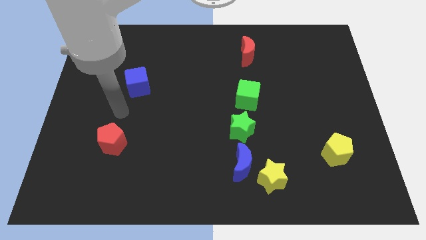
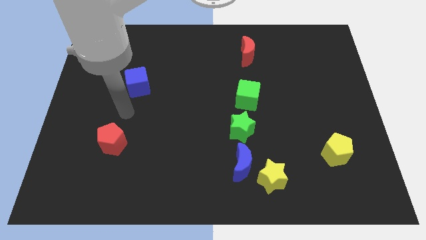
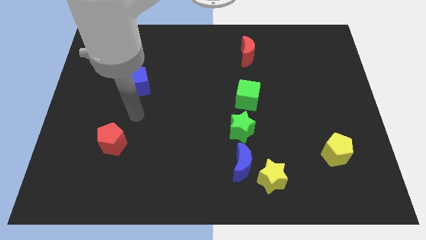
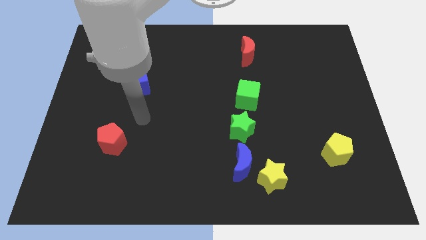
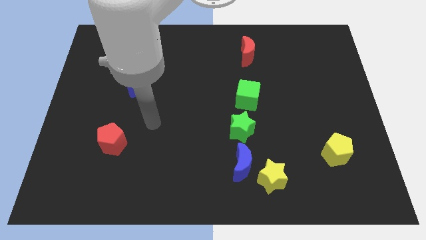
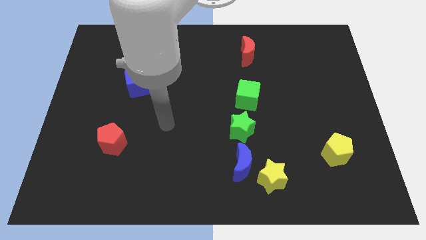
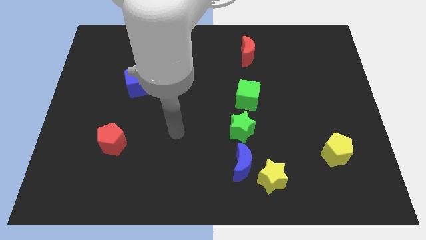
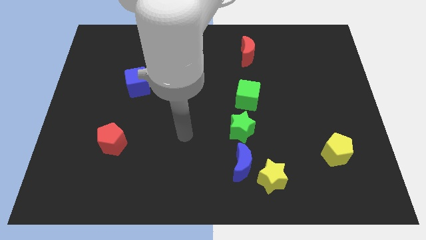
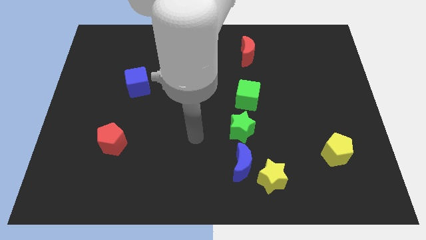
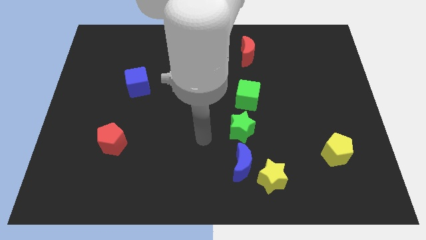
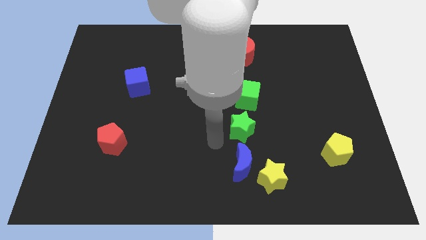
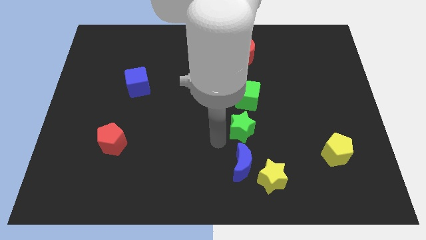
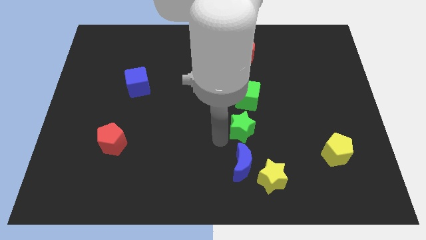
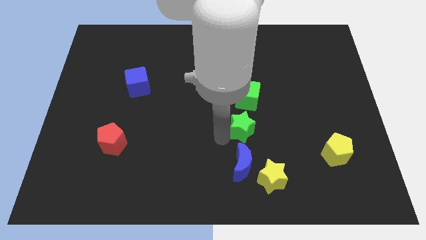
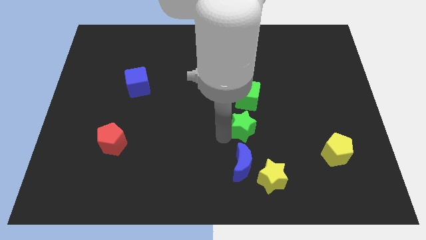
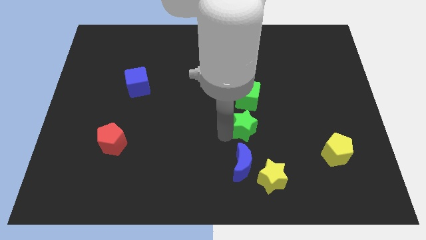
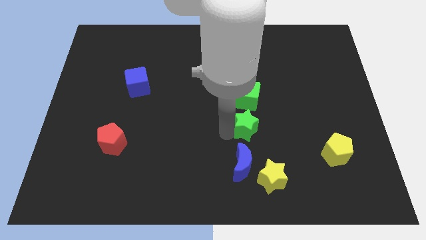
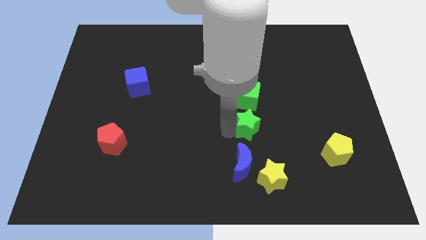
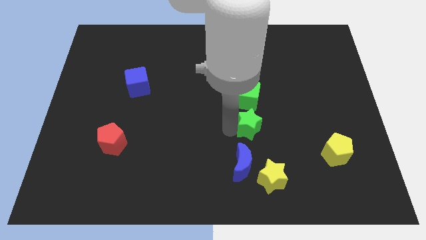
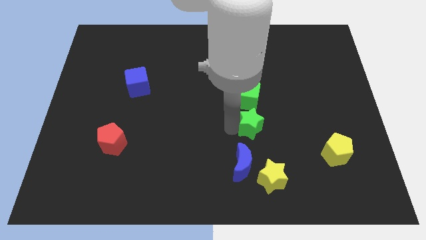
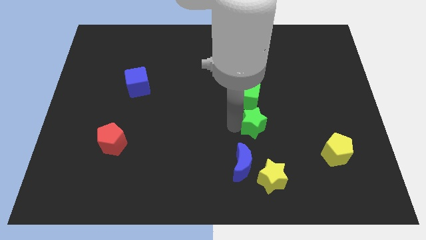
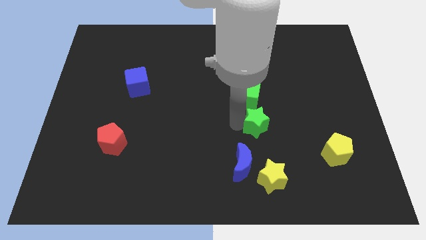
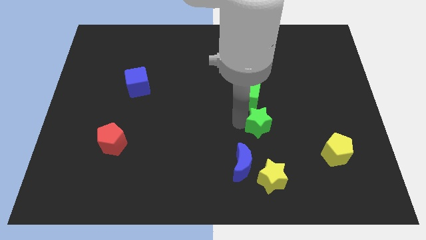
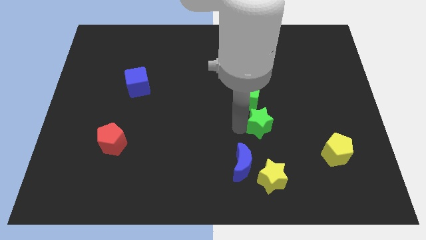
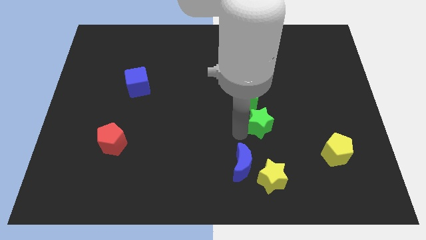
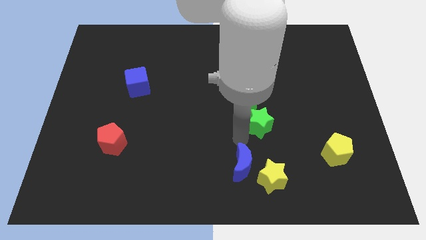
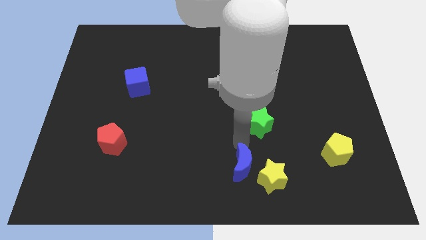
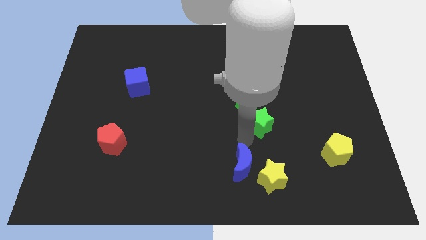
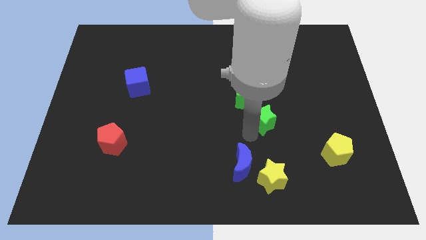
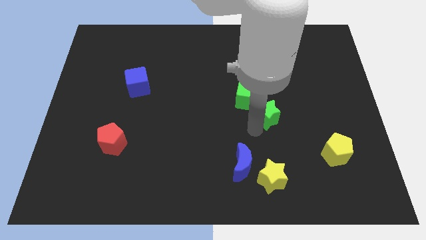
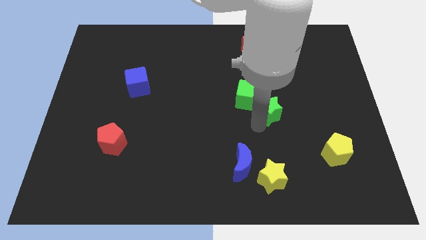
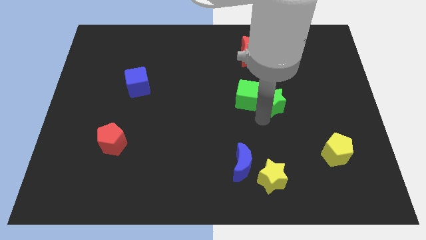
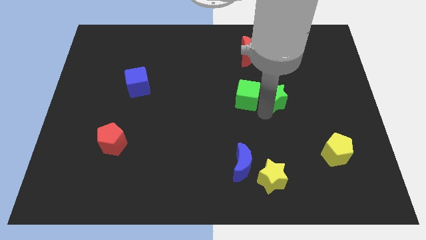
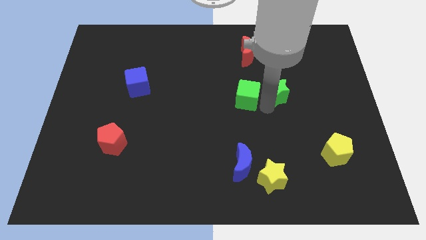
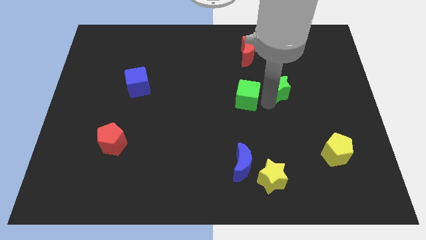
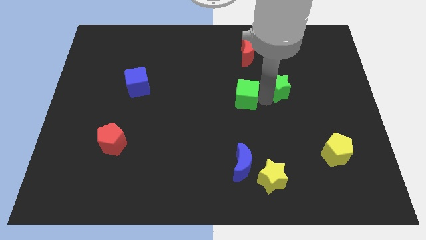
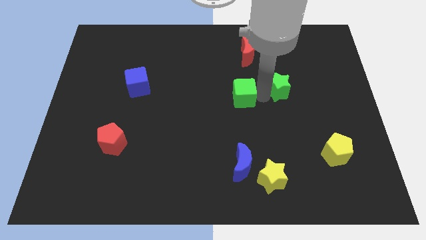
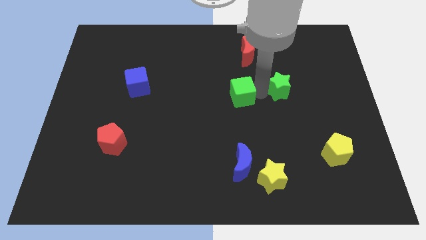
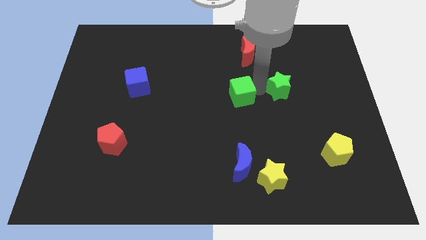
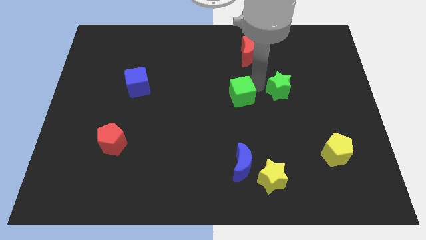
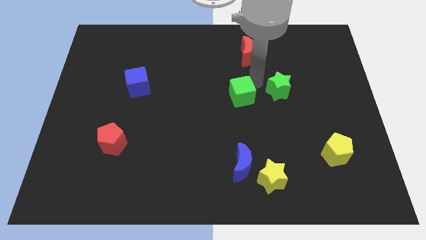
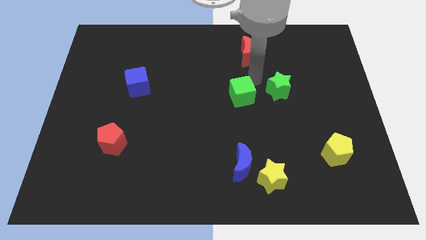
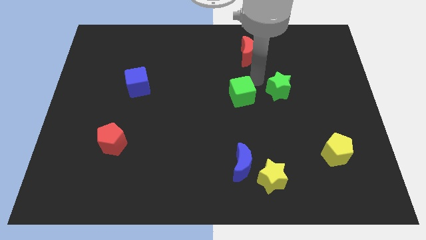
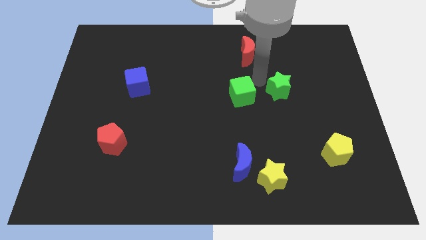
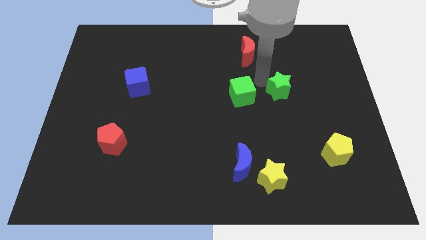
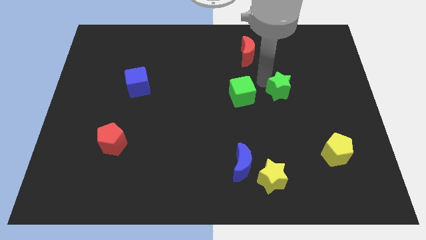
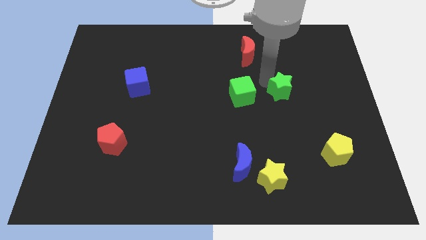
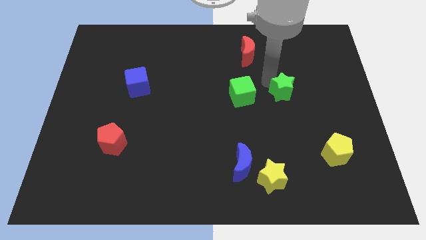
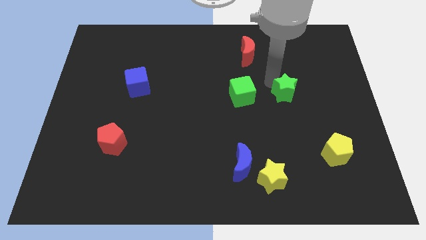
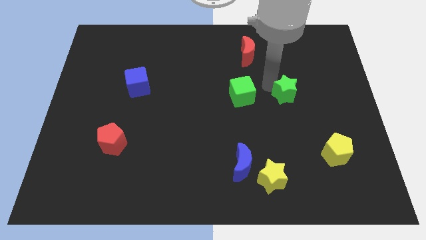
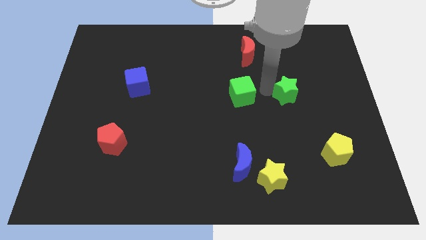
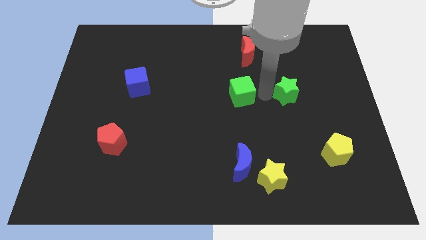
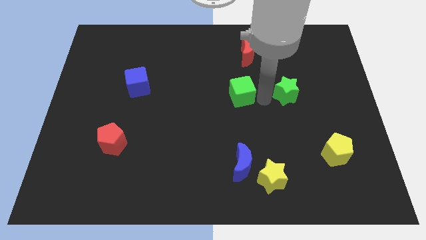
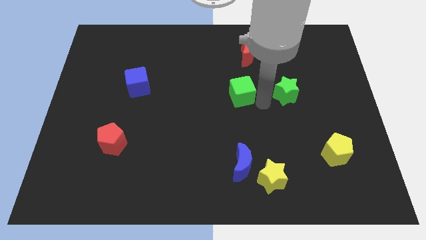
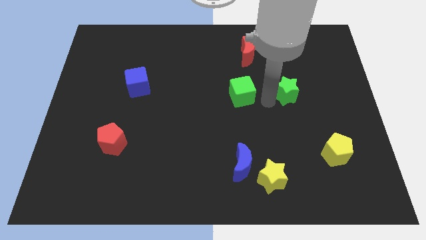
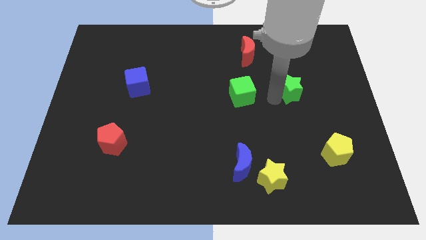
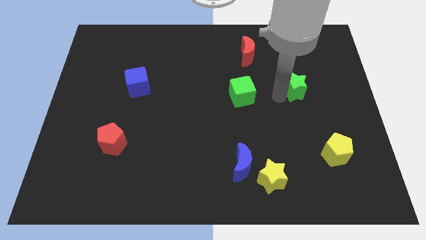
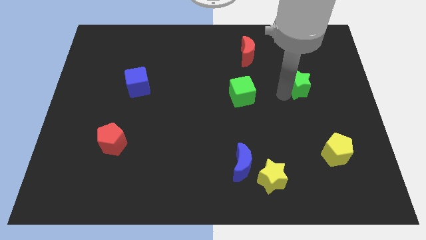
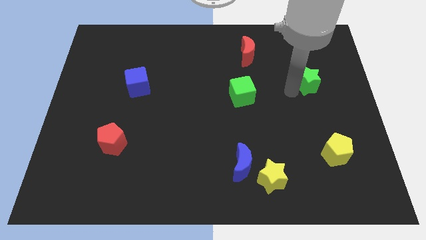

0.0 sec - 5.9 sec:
slide the green star upwards and to the right

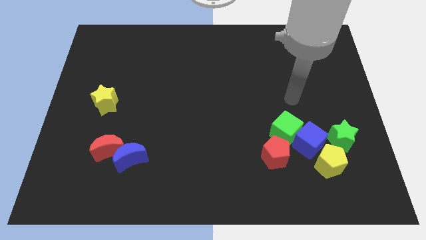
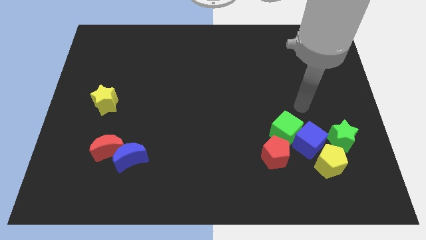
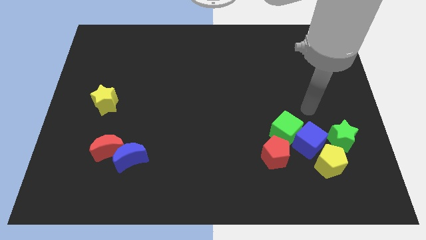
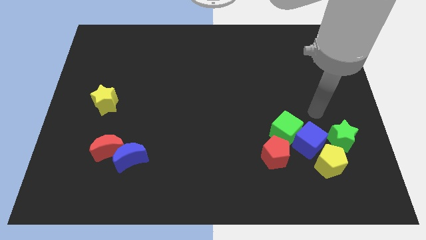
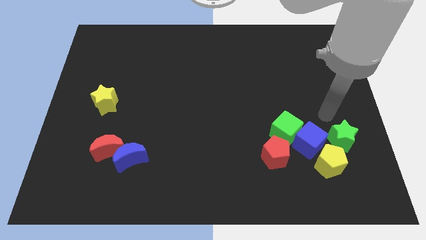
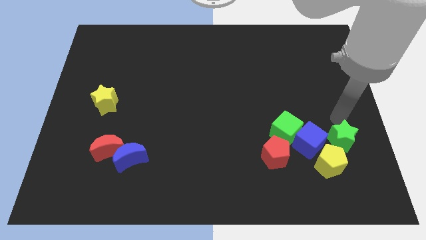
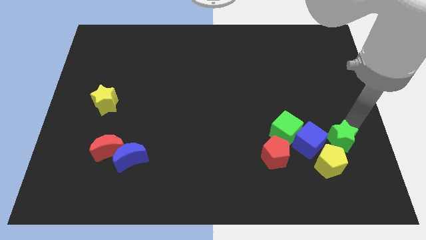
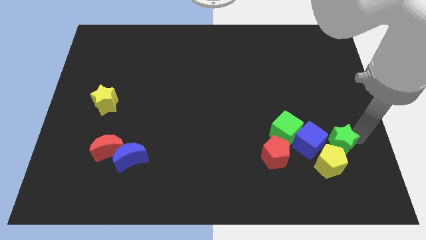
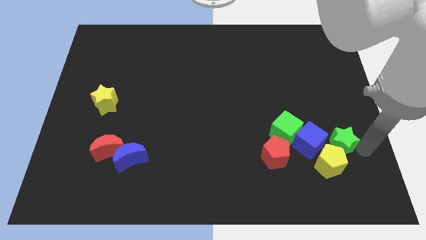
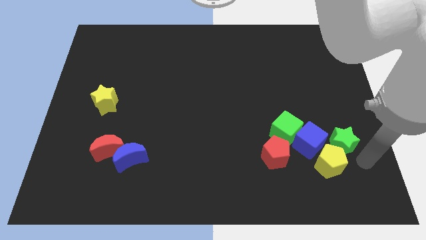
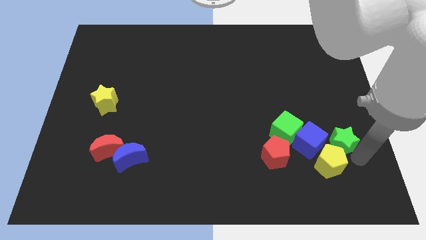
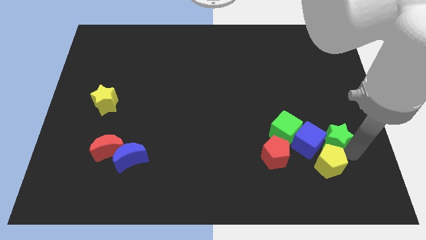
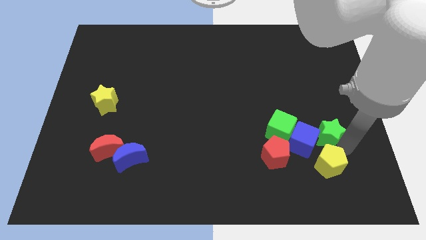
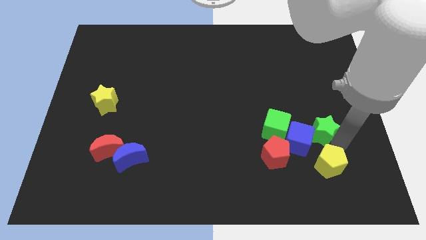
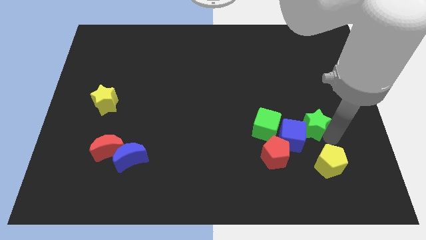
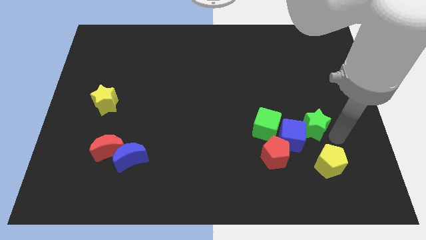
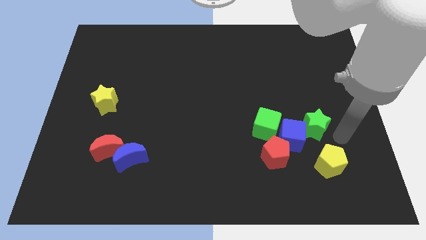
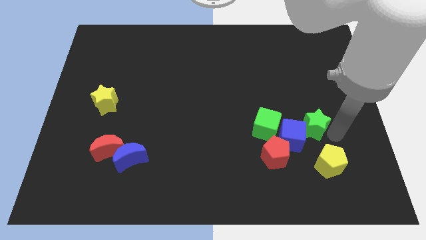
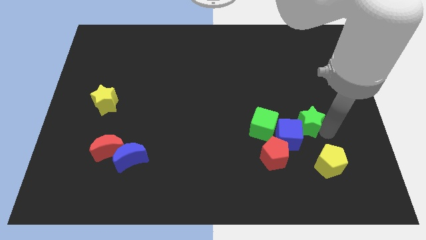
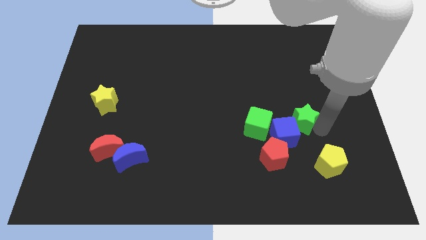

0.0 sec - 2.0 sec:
move the green star to the left a bit

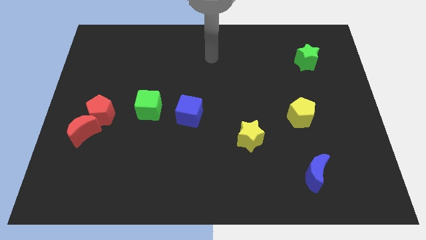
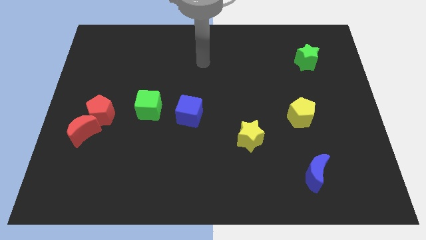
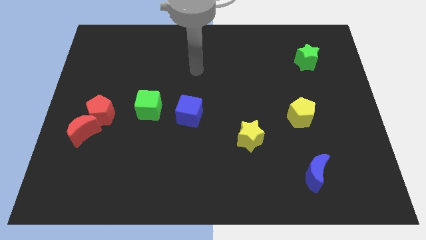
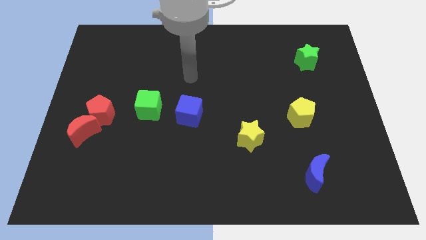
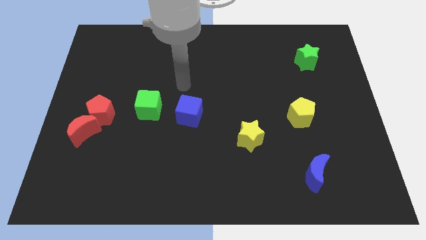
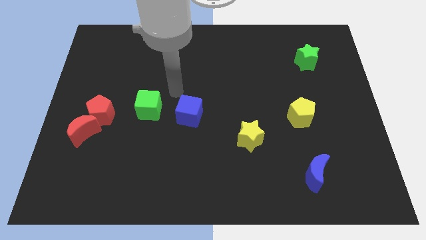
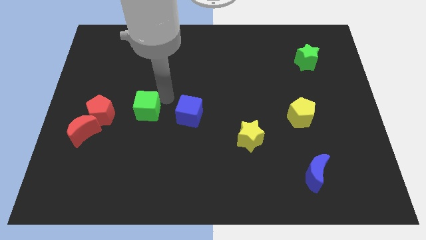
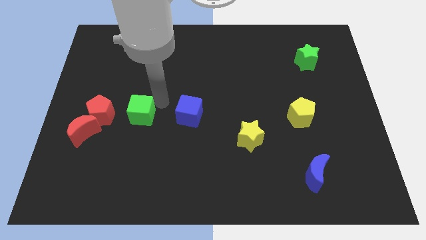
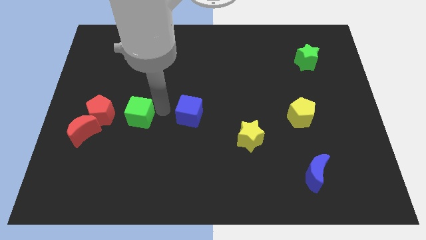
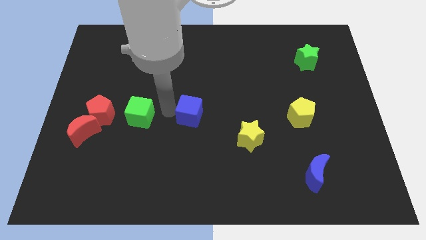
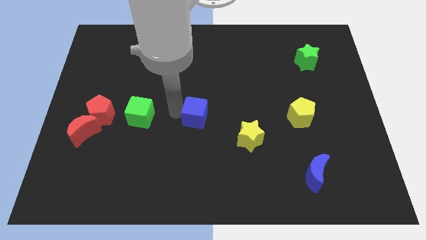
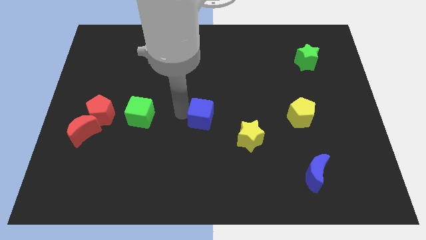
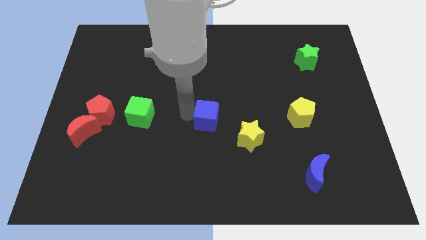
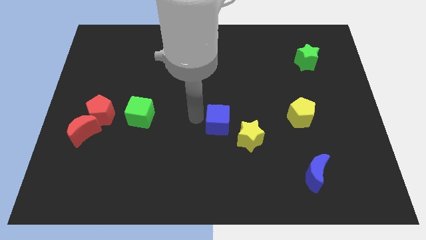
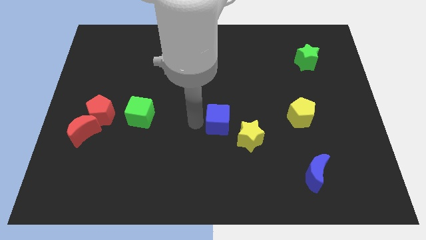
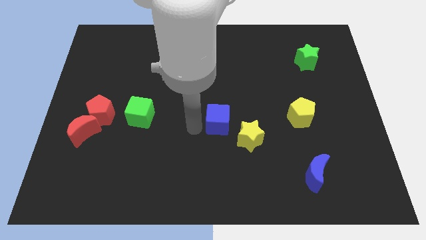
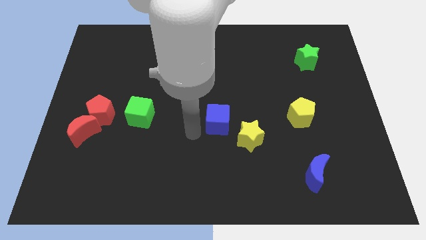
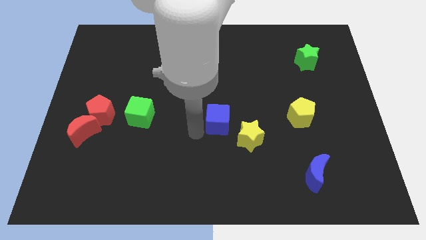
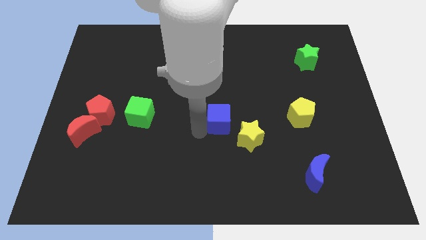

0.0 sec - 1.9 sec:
slightly move the blue cube right
